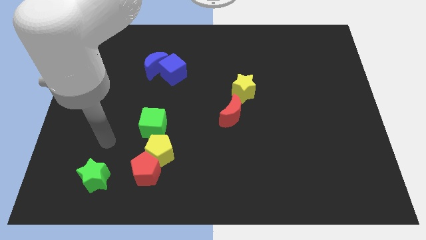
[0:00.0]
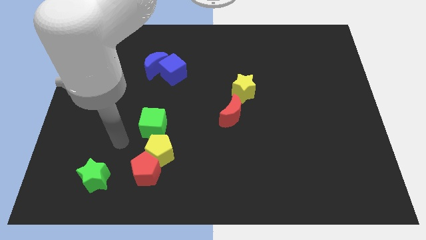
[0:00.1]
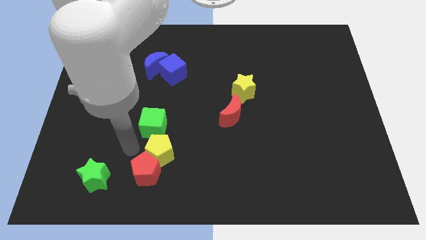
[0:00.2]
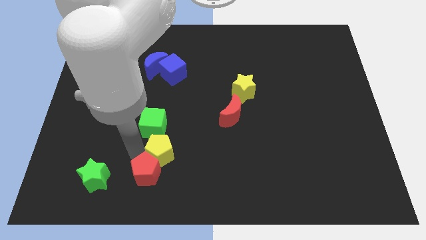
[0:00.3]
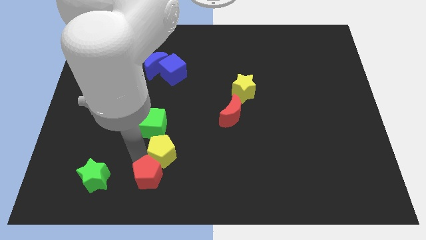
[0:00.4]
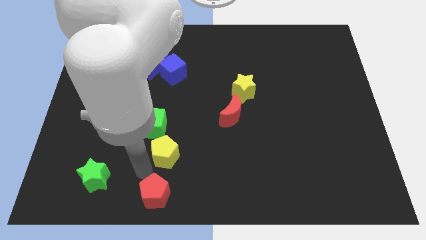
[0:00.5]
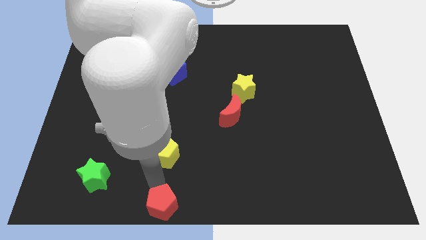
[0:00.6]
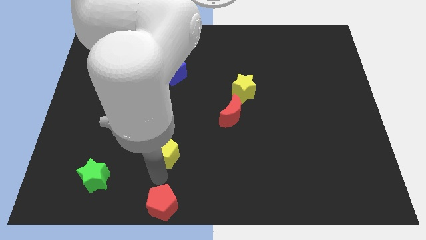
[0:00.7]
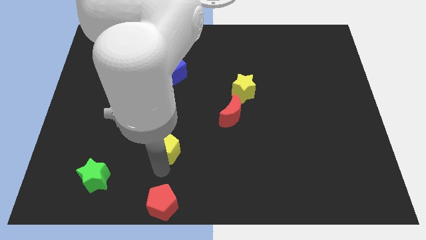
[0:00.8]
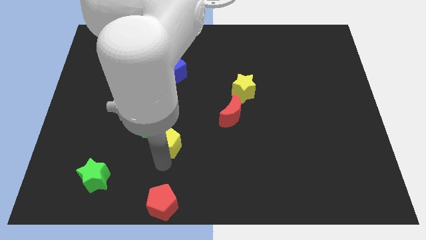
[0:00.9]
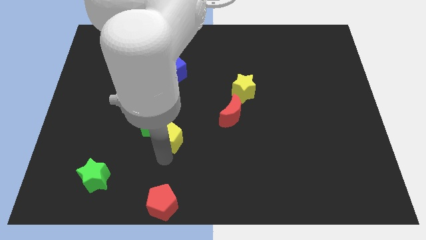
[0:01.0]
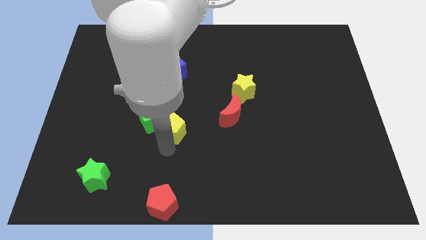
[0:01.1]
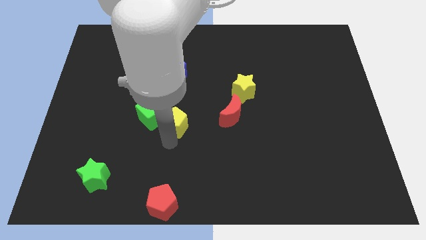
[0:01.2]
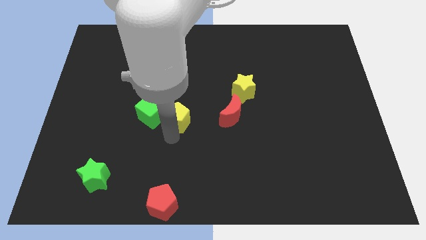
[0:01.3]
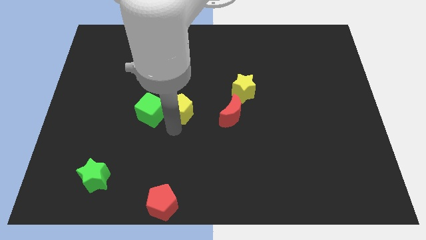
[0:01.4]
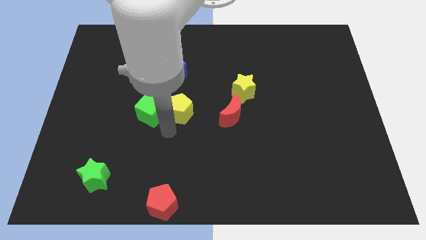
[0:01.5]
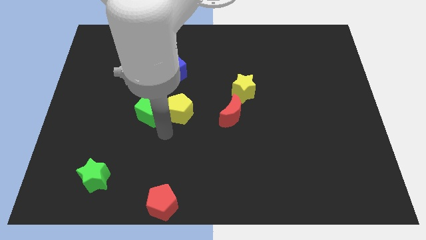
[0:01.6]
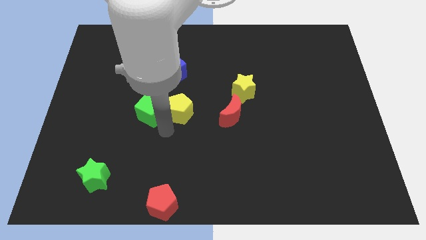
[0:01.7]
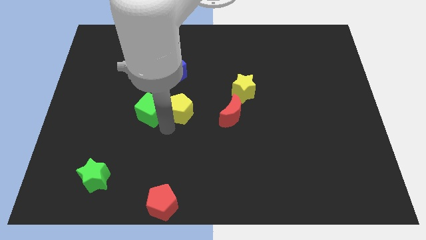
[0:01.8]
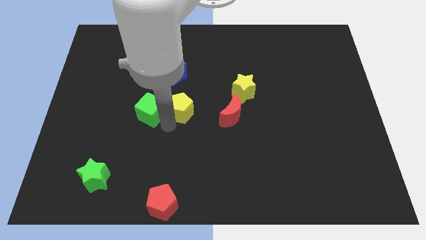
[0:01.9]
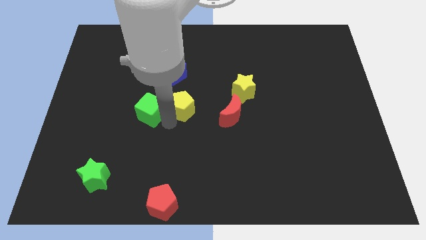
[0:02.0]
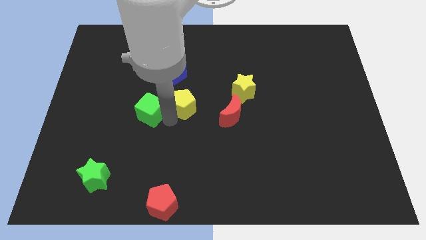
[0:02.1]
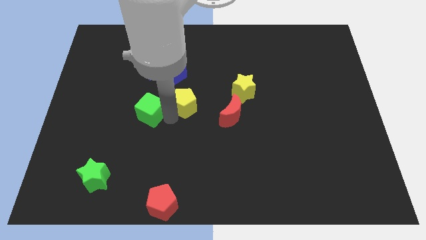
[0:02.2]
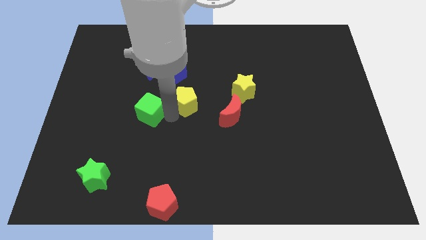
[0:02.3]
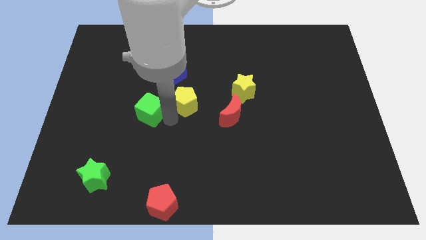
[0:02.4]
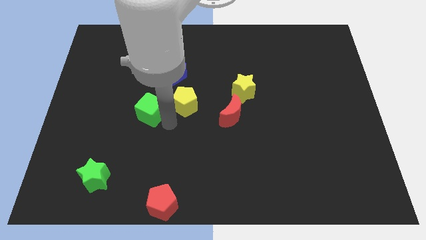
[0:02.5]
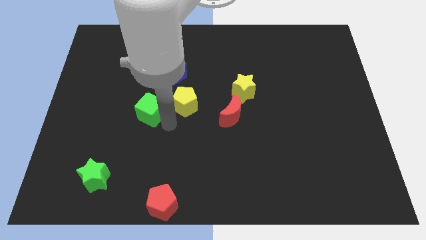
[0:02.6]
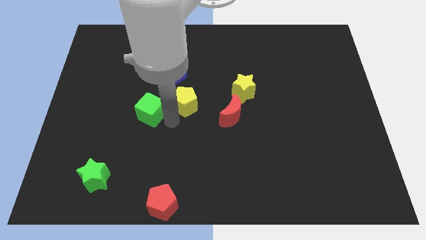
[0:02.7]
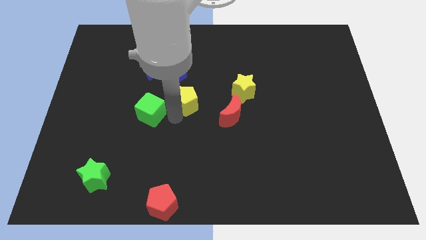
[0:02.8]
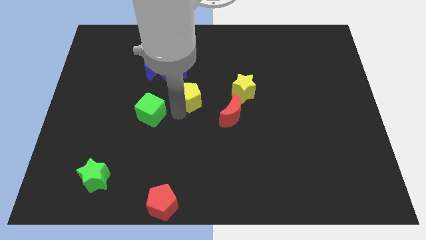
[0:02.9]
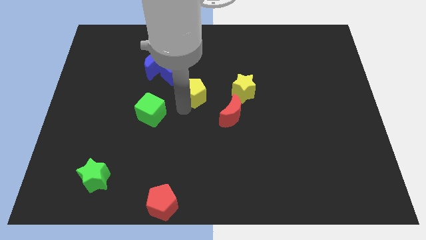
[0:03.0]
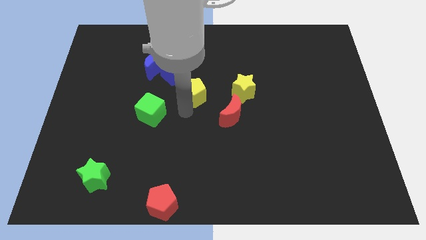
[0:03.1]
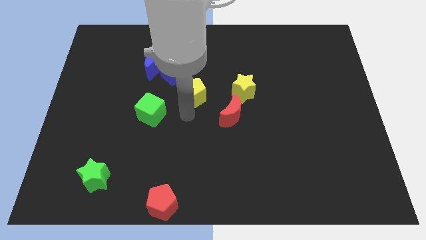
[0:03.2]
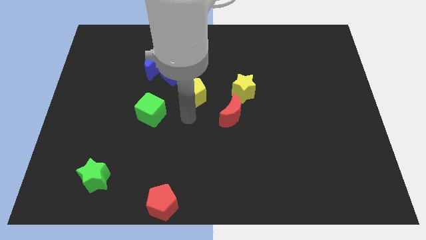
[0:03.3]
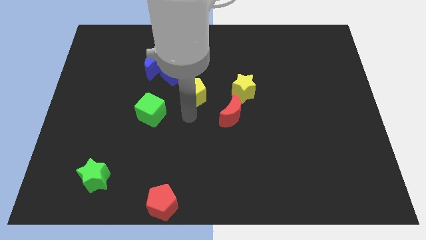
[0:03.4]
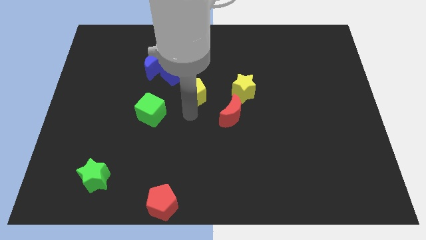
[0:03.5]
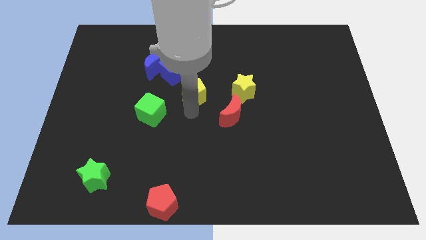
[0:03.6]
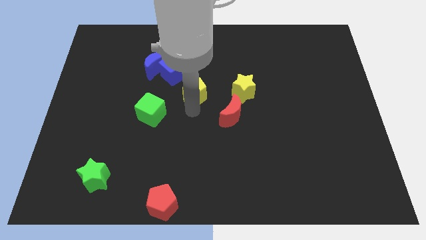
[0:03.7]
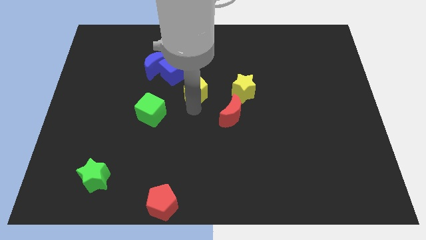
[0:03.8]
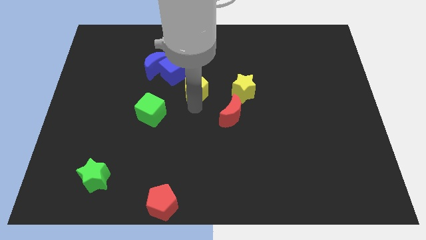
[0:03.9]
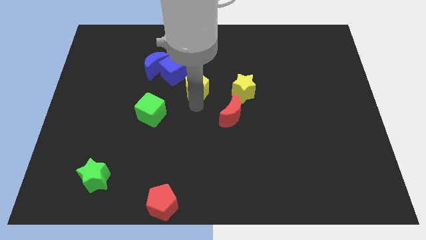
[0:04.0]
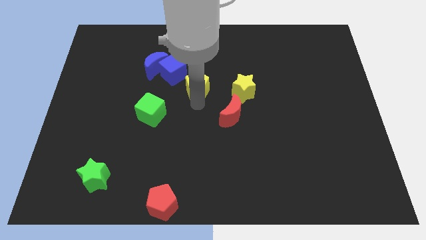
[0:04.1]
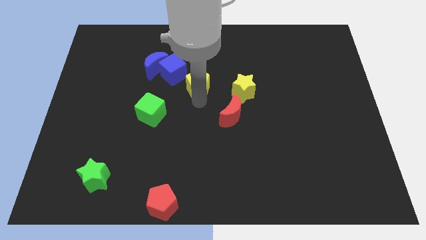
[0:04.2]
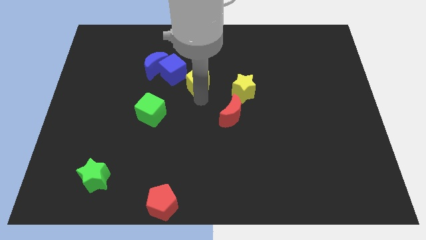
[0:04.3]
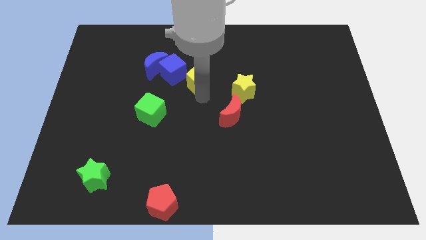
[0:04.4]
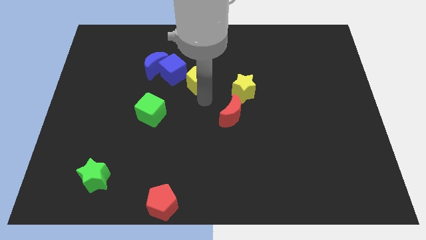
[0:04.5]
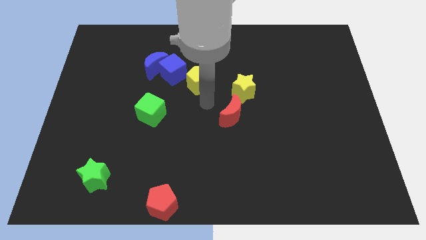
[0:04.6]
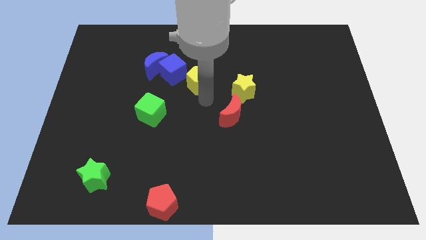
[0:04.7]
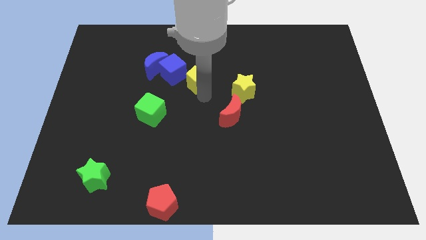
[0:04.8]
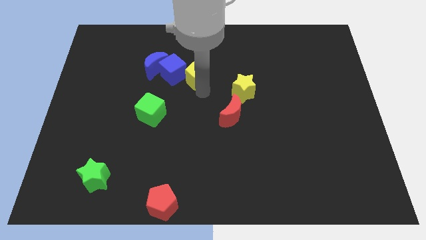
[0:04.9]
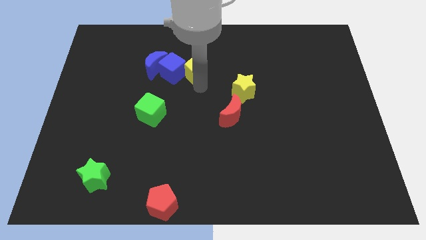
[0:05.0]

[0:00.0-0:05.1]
put the yellow pentagon to the top right of the blue cube

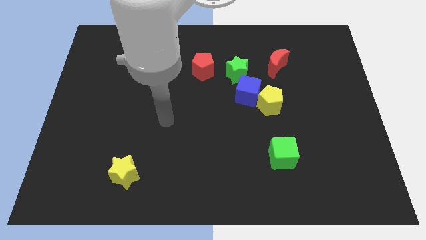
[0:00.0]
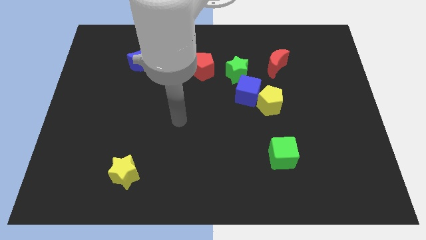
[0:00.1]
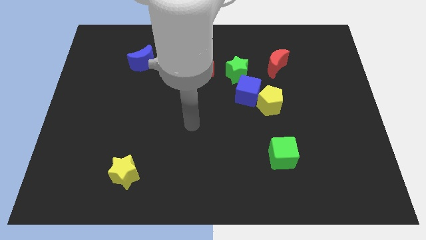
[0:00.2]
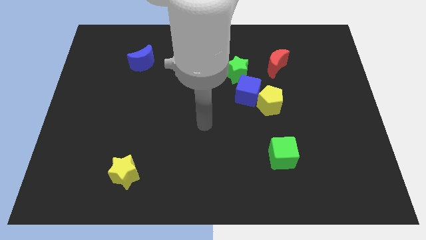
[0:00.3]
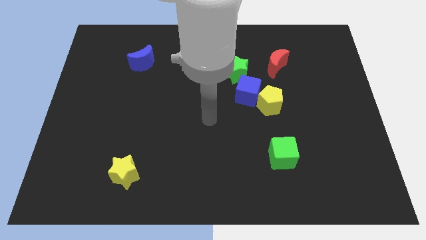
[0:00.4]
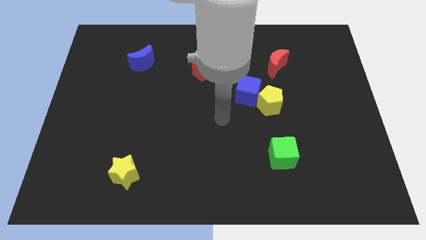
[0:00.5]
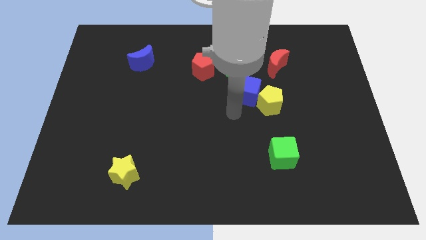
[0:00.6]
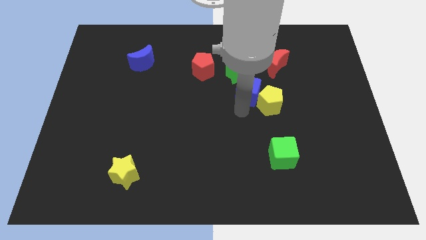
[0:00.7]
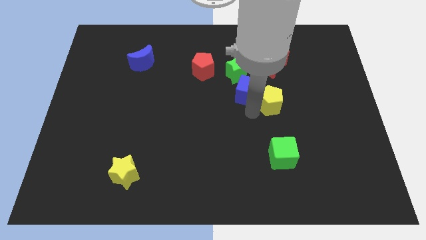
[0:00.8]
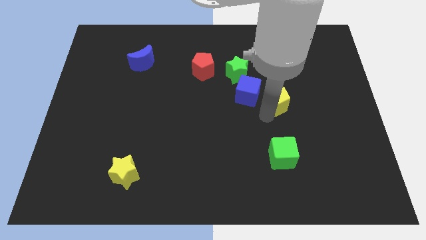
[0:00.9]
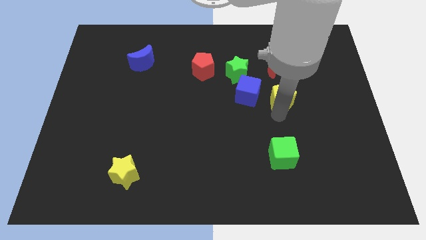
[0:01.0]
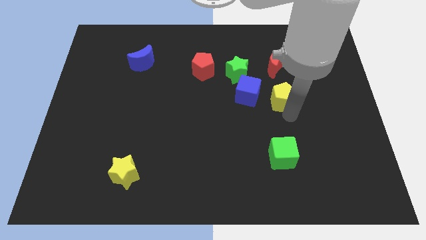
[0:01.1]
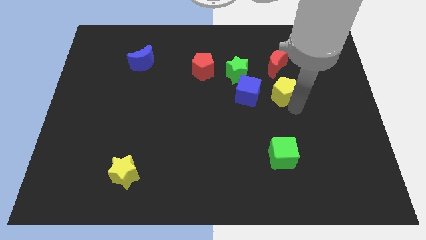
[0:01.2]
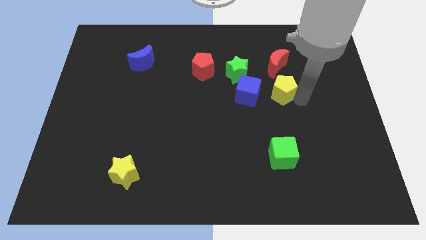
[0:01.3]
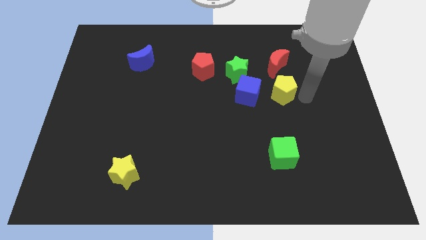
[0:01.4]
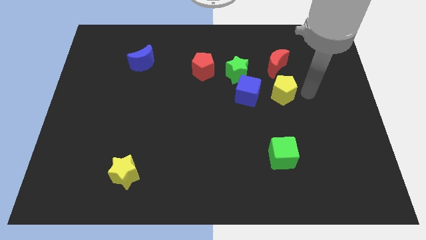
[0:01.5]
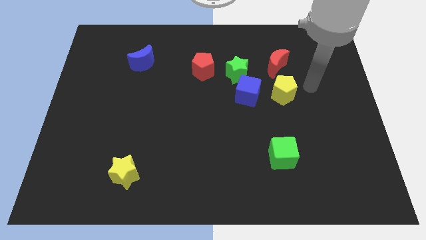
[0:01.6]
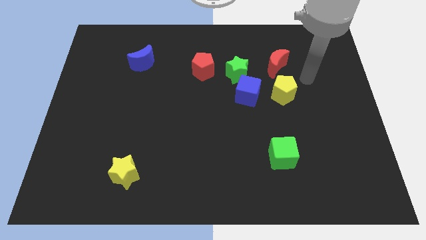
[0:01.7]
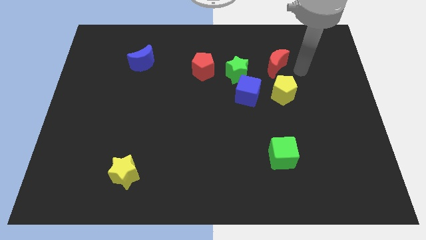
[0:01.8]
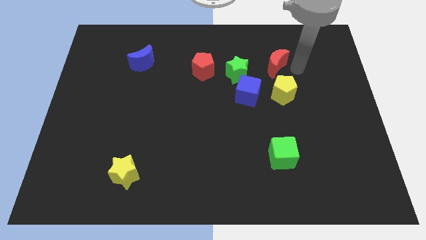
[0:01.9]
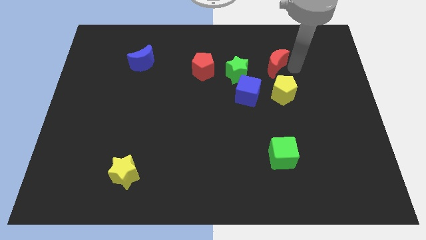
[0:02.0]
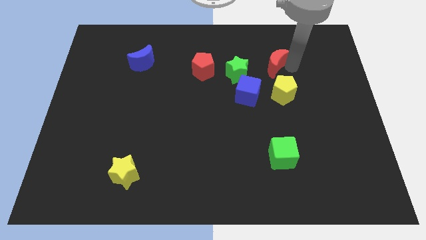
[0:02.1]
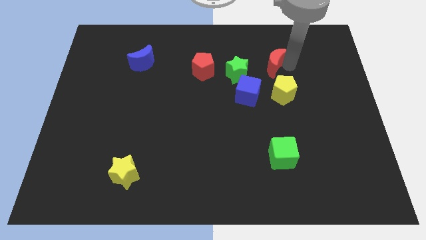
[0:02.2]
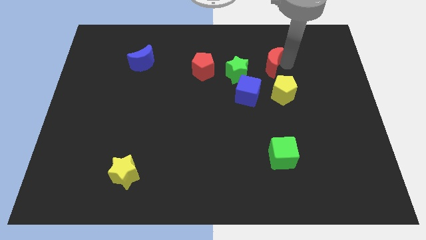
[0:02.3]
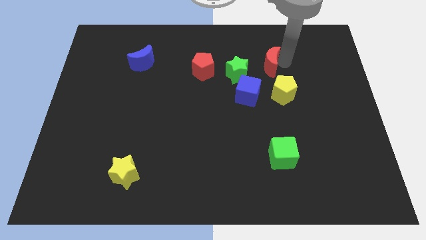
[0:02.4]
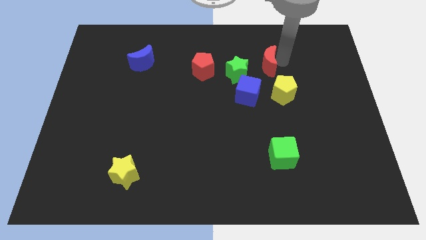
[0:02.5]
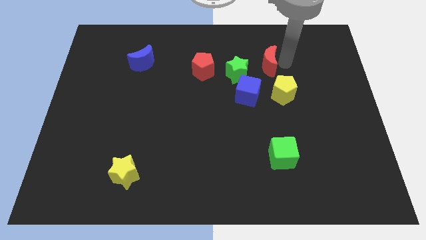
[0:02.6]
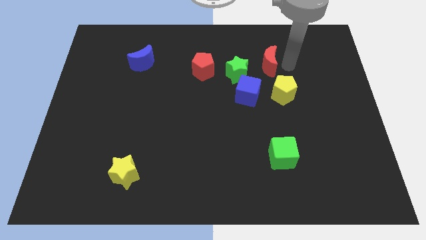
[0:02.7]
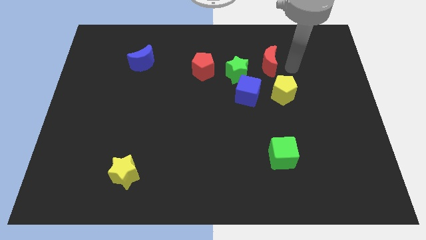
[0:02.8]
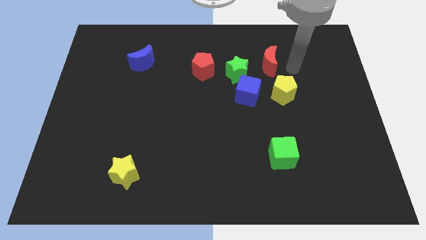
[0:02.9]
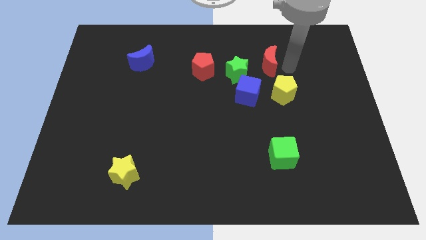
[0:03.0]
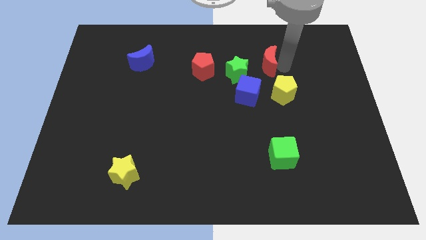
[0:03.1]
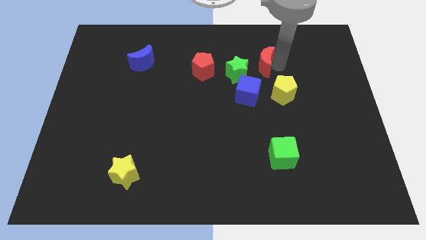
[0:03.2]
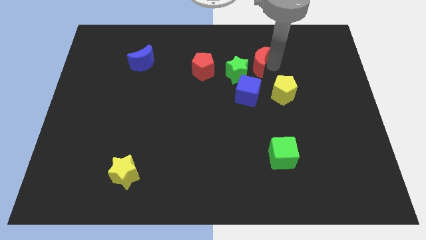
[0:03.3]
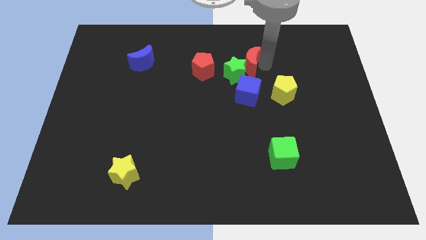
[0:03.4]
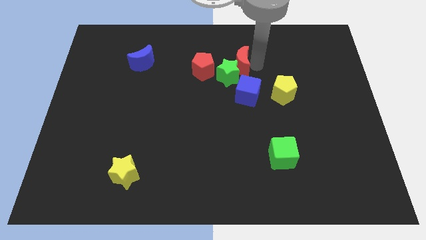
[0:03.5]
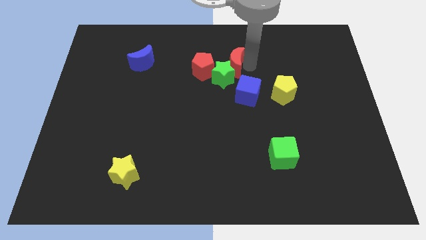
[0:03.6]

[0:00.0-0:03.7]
move the red moon diagonally up and to the right of the red pentagon
